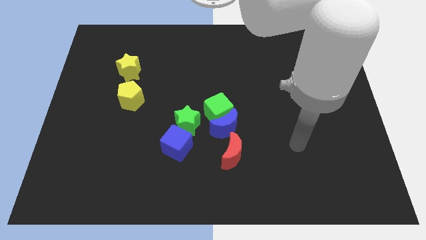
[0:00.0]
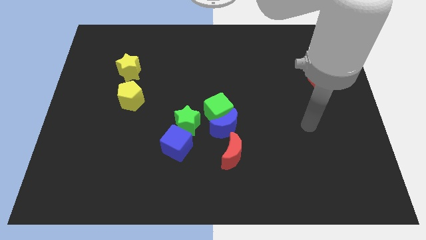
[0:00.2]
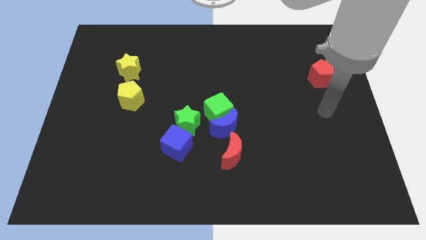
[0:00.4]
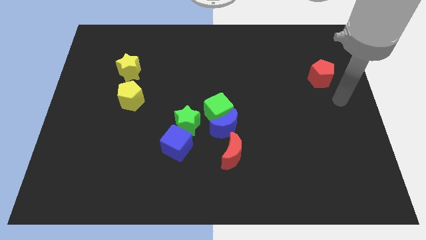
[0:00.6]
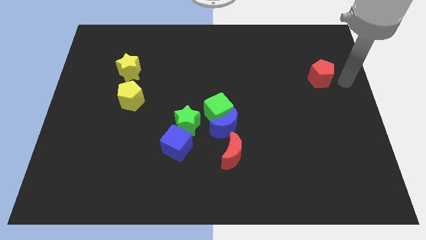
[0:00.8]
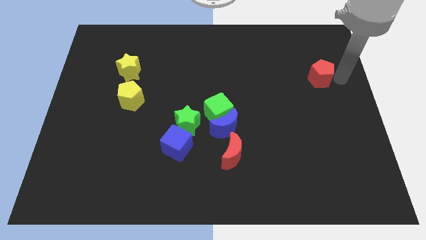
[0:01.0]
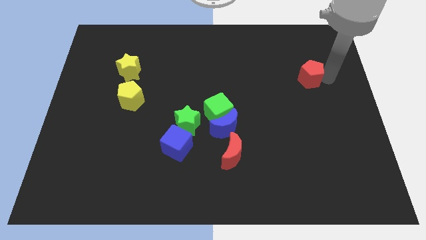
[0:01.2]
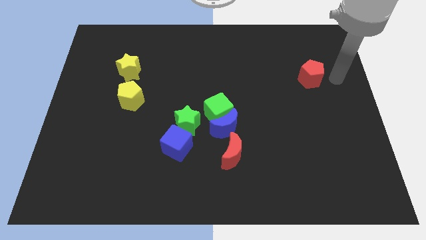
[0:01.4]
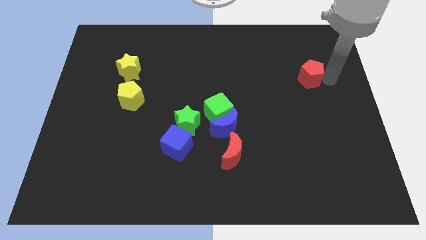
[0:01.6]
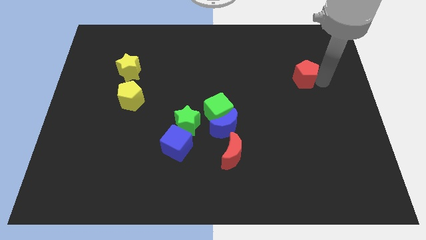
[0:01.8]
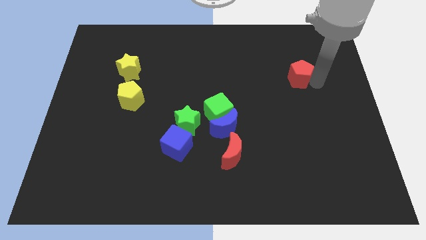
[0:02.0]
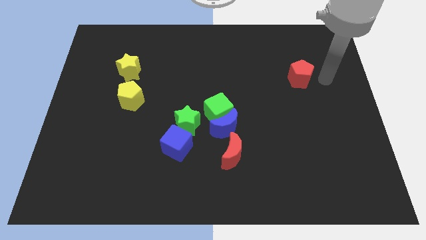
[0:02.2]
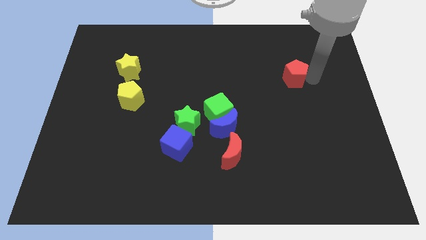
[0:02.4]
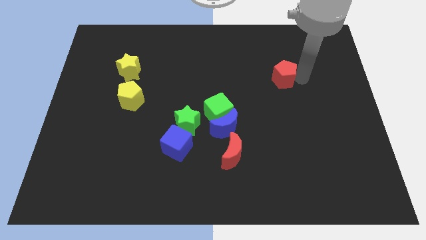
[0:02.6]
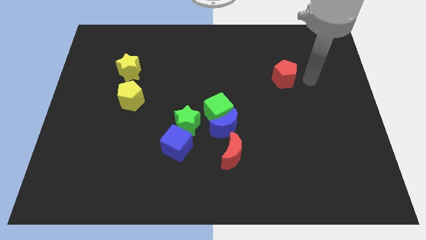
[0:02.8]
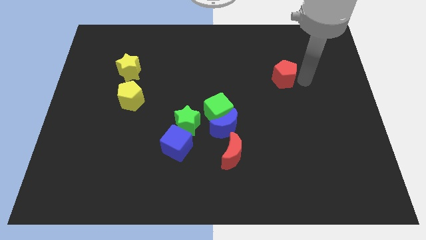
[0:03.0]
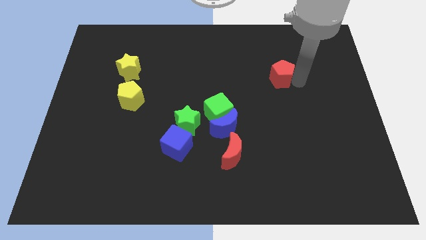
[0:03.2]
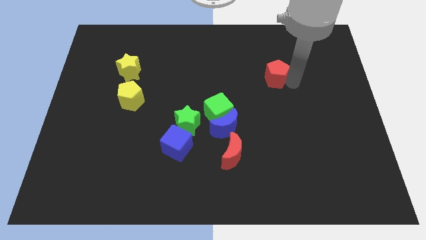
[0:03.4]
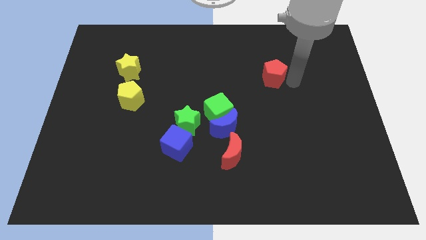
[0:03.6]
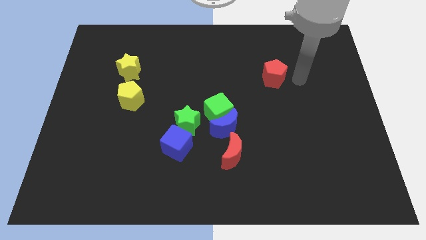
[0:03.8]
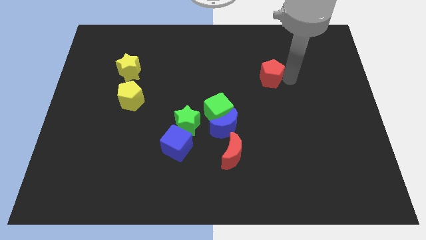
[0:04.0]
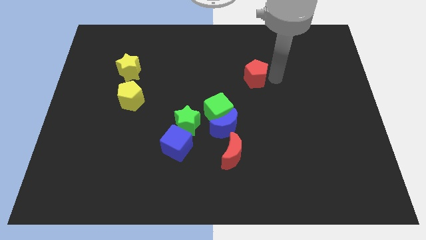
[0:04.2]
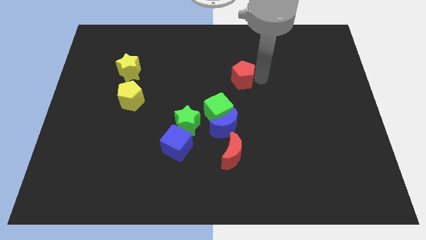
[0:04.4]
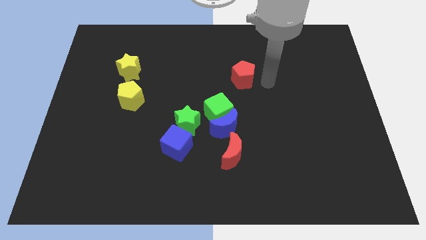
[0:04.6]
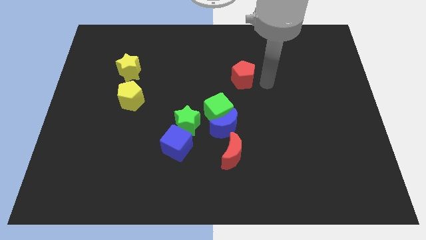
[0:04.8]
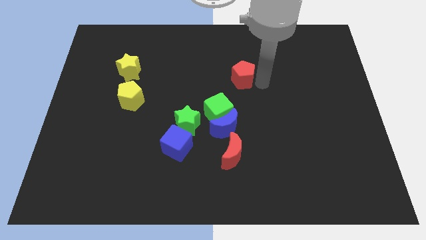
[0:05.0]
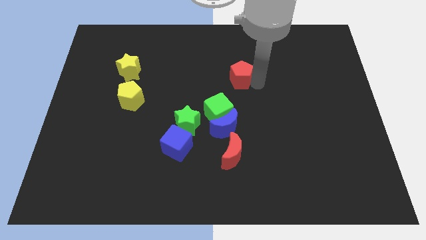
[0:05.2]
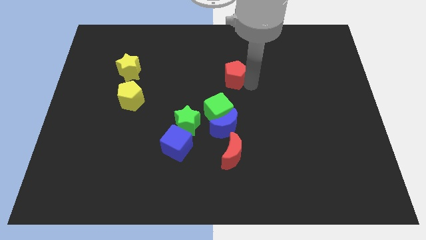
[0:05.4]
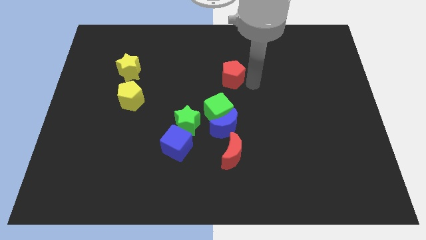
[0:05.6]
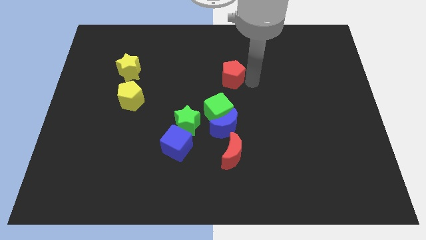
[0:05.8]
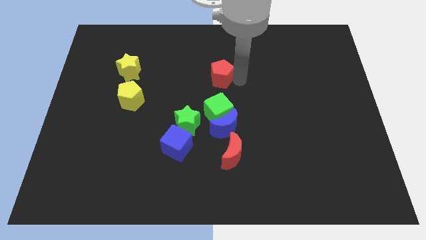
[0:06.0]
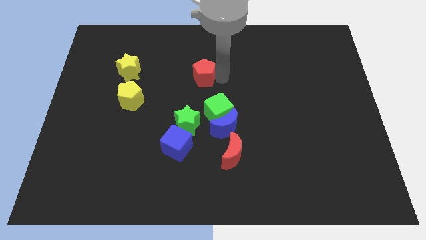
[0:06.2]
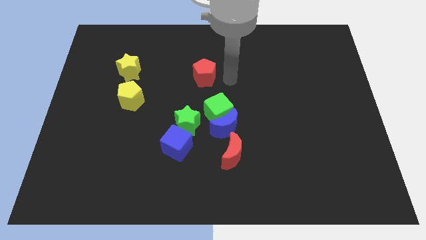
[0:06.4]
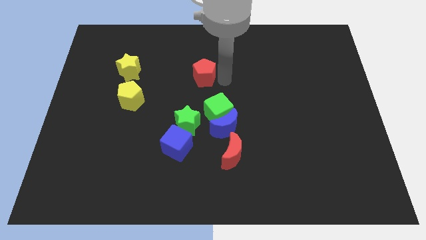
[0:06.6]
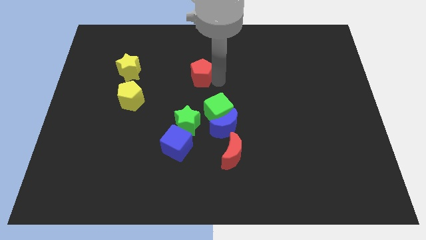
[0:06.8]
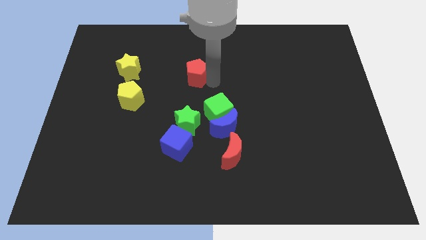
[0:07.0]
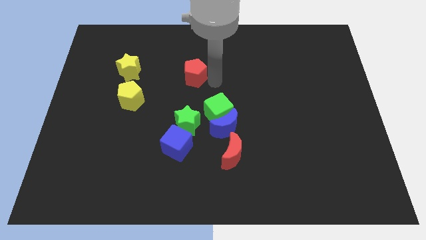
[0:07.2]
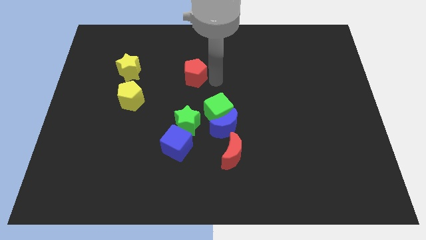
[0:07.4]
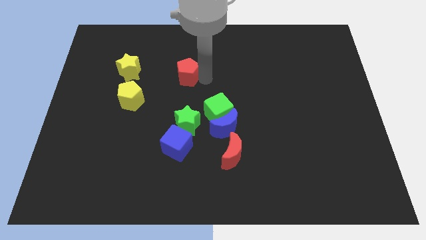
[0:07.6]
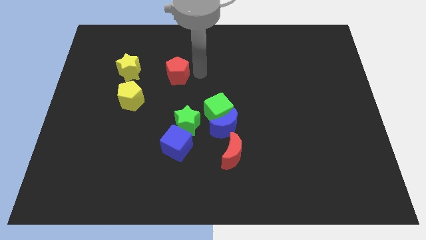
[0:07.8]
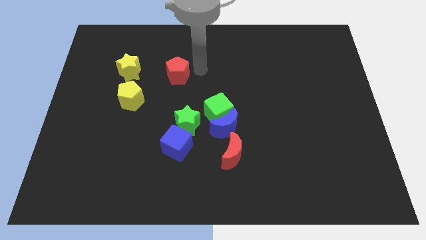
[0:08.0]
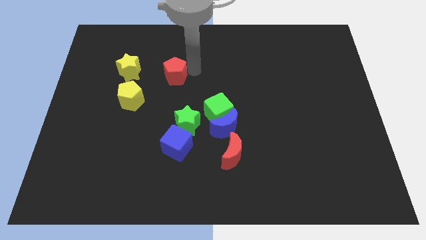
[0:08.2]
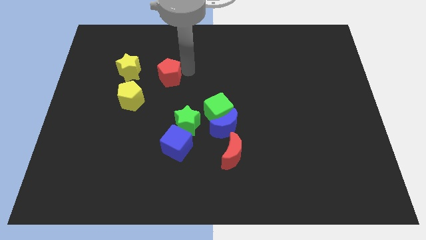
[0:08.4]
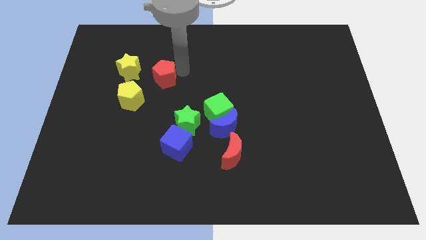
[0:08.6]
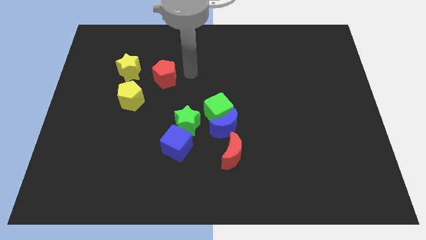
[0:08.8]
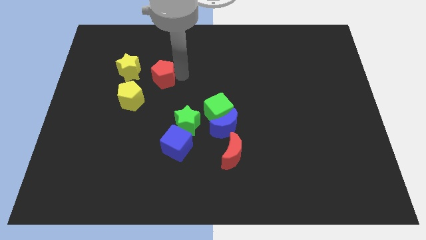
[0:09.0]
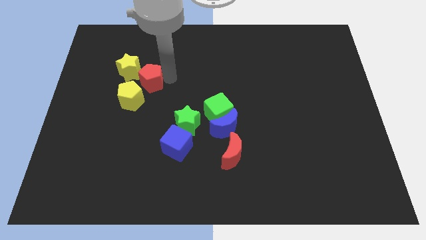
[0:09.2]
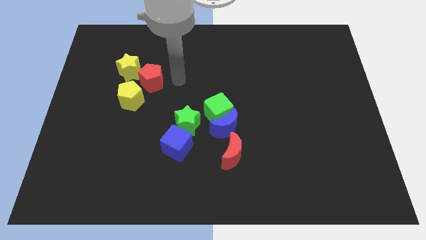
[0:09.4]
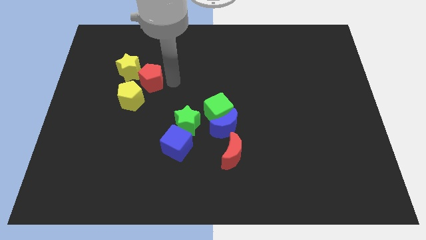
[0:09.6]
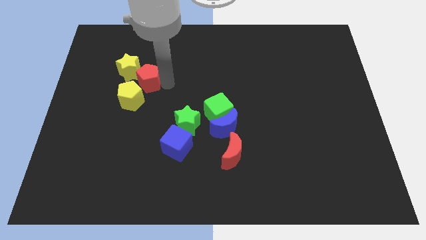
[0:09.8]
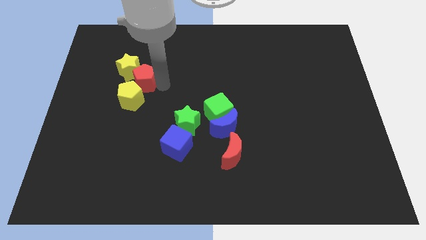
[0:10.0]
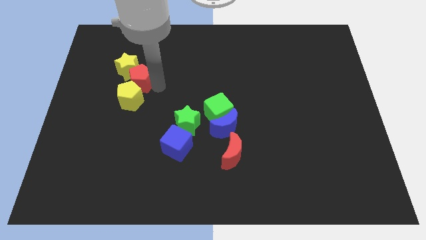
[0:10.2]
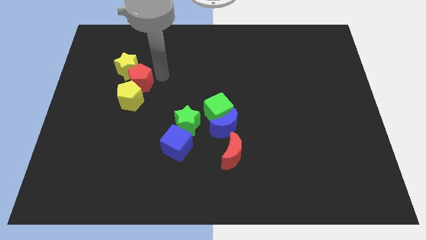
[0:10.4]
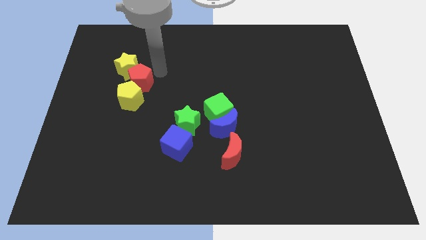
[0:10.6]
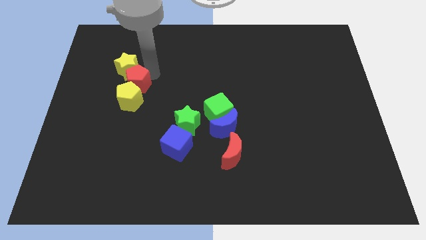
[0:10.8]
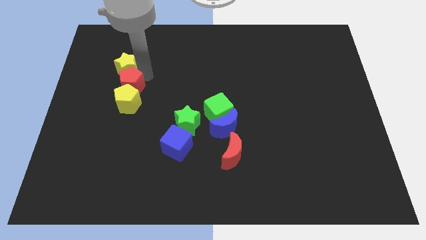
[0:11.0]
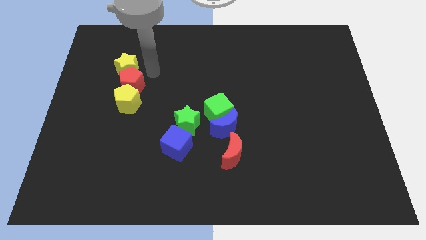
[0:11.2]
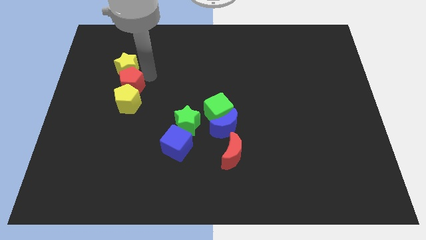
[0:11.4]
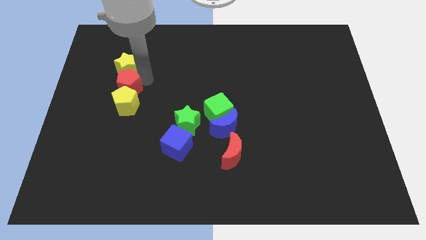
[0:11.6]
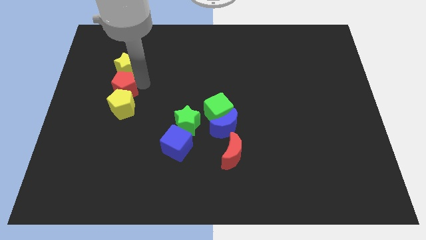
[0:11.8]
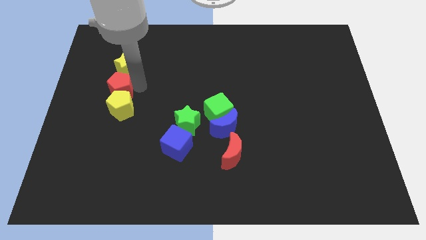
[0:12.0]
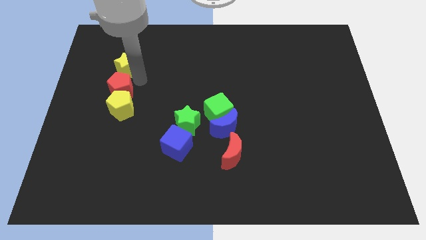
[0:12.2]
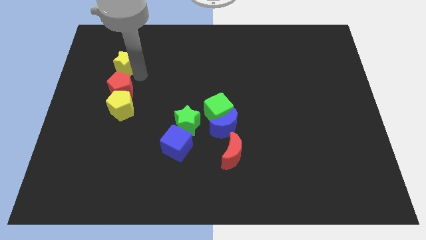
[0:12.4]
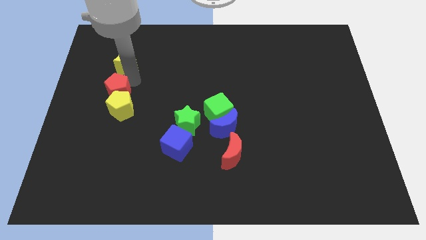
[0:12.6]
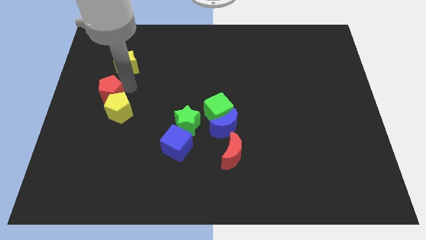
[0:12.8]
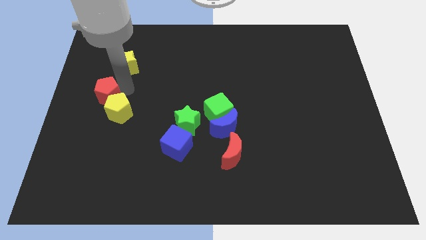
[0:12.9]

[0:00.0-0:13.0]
push the red pentagon to the left side of the board
